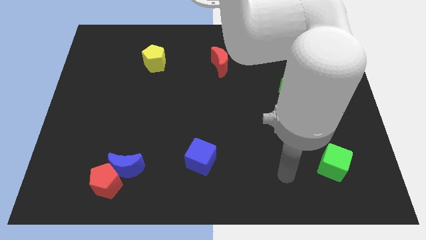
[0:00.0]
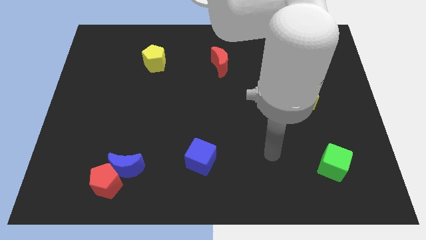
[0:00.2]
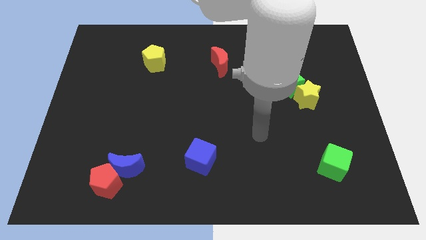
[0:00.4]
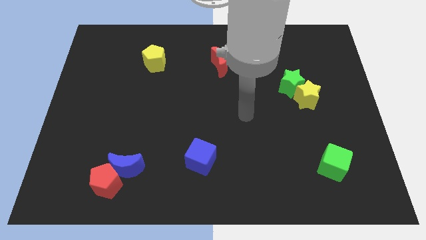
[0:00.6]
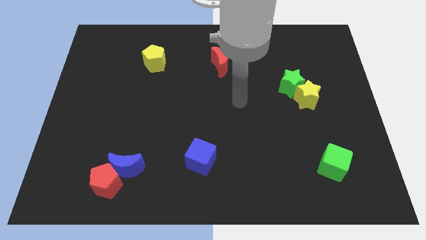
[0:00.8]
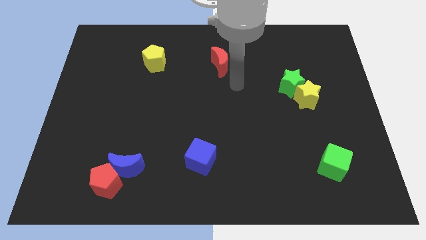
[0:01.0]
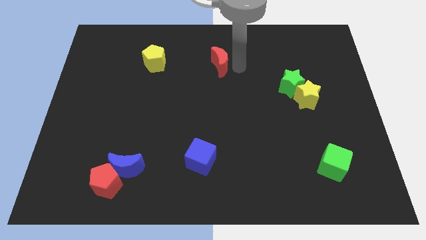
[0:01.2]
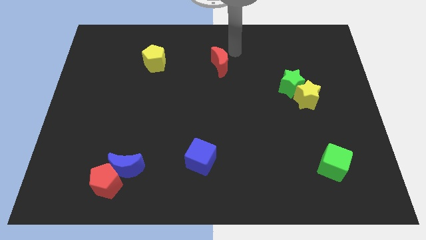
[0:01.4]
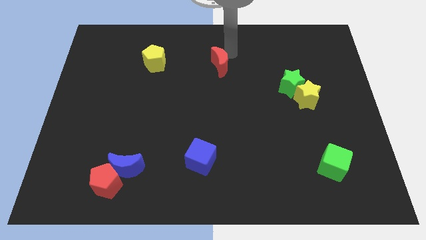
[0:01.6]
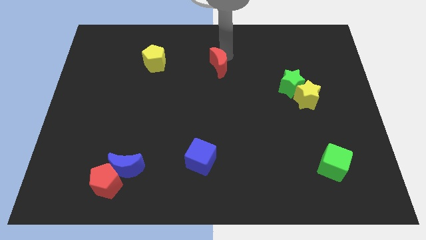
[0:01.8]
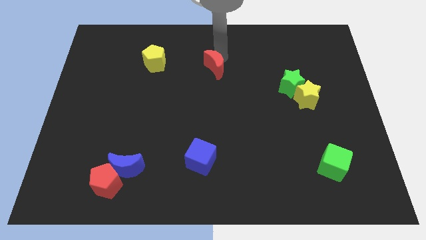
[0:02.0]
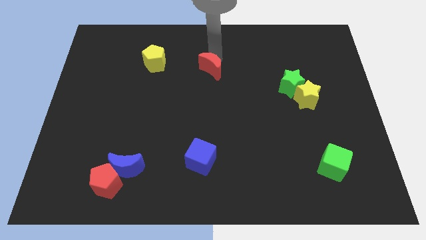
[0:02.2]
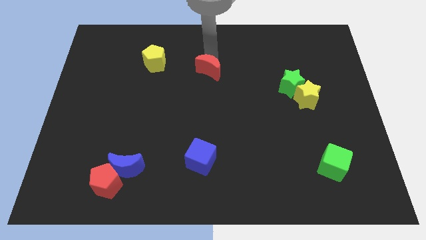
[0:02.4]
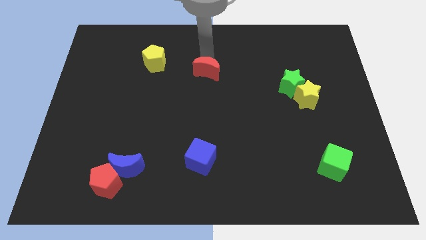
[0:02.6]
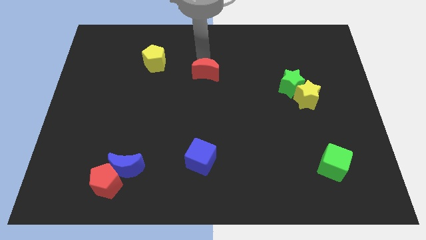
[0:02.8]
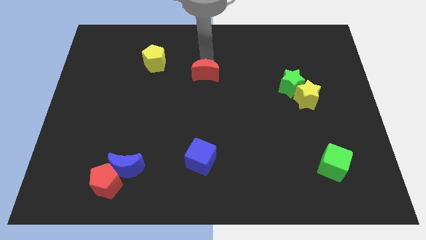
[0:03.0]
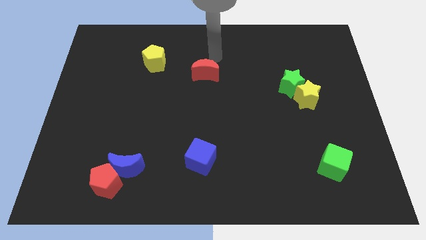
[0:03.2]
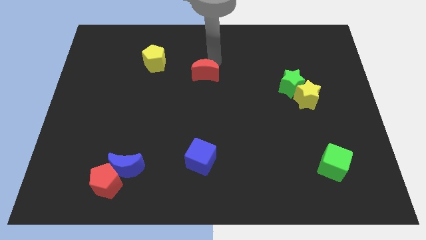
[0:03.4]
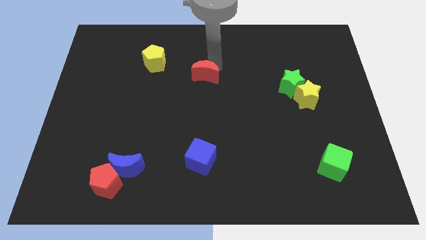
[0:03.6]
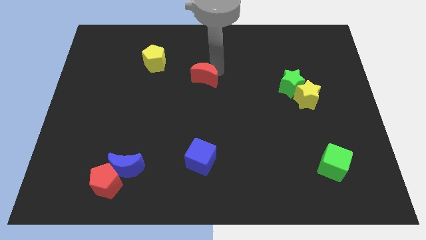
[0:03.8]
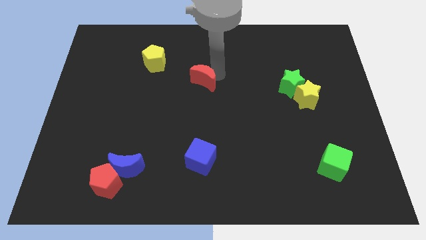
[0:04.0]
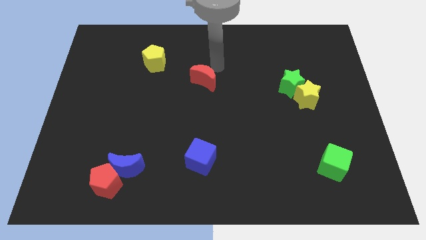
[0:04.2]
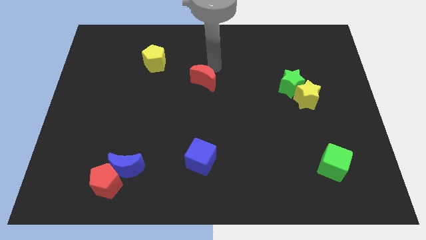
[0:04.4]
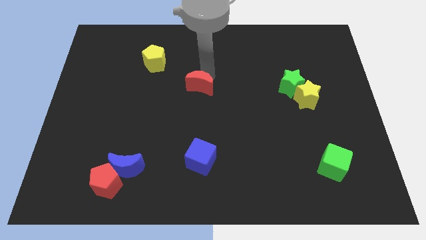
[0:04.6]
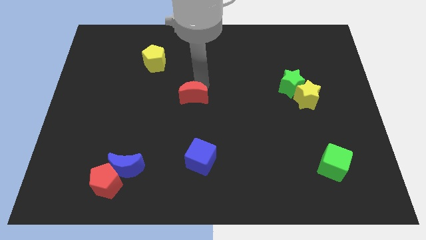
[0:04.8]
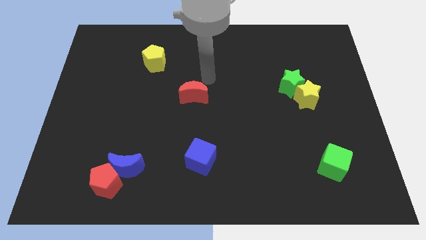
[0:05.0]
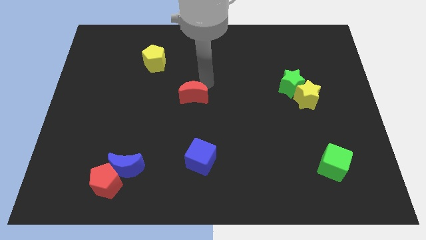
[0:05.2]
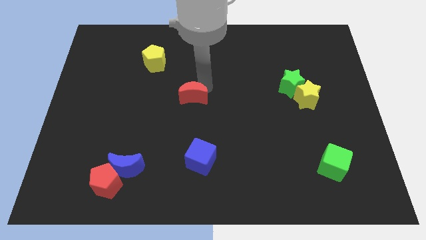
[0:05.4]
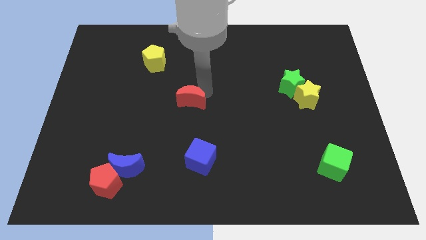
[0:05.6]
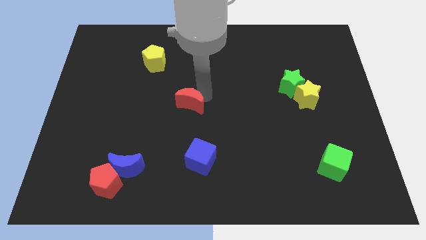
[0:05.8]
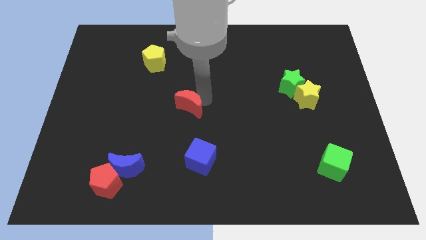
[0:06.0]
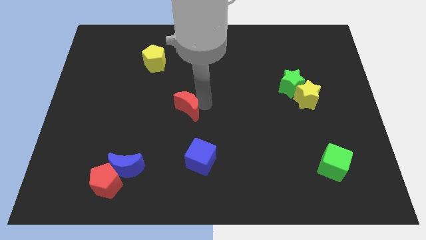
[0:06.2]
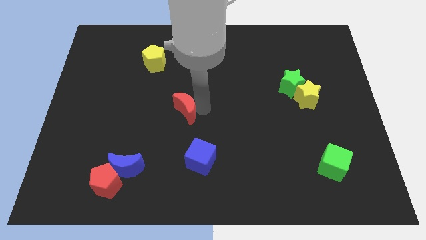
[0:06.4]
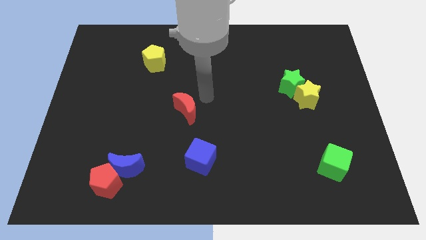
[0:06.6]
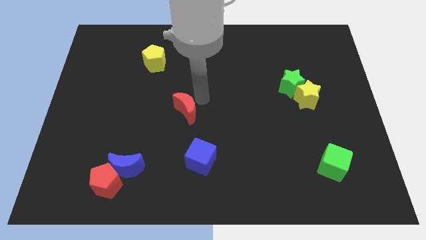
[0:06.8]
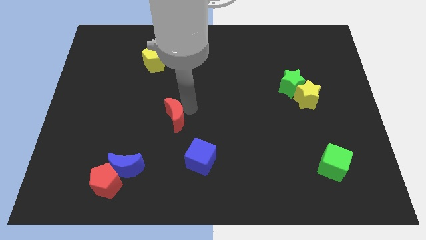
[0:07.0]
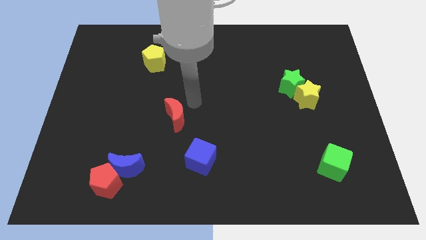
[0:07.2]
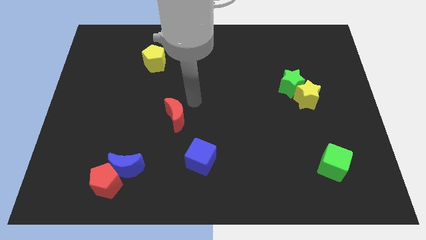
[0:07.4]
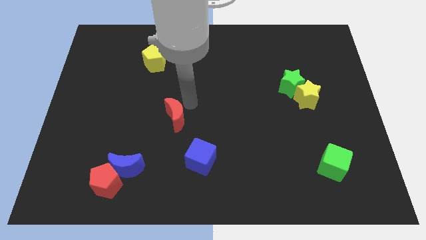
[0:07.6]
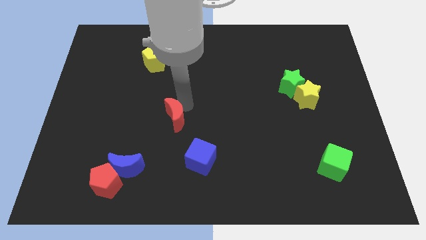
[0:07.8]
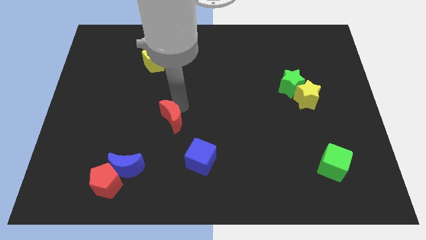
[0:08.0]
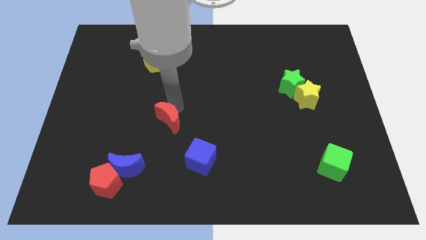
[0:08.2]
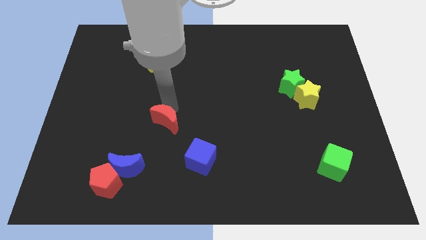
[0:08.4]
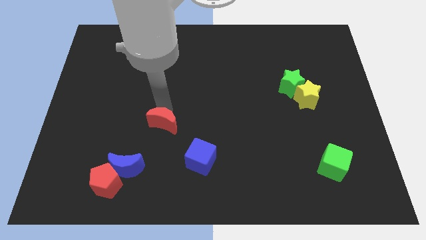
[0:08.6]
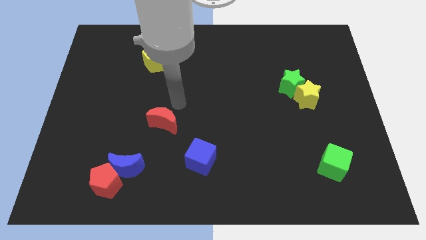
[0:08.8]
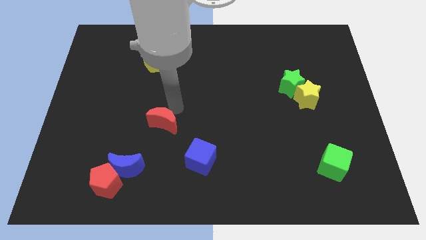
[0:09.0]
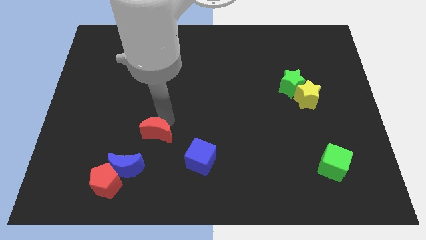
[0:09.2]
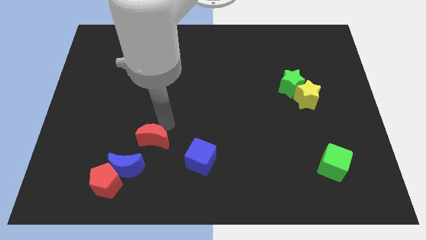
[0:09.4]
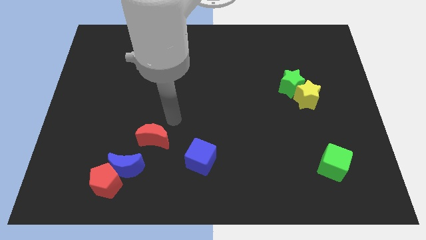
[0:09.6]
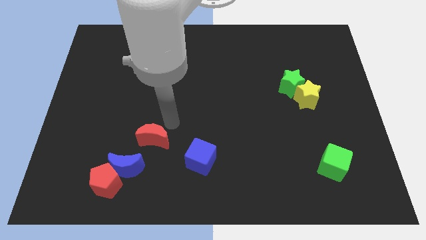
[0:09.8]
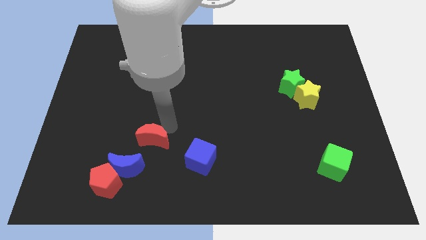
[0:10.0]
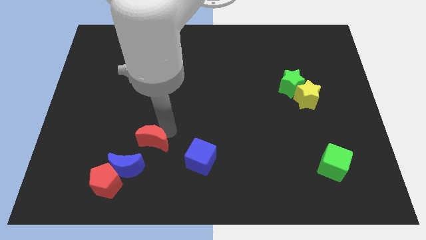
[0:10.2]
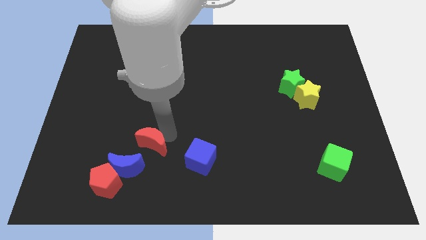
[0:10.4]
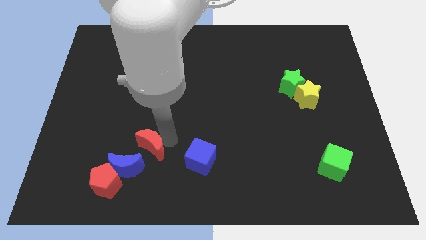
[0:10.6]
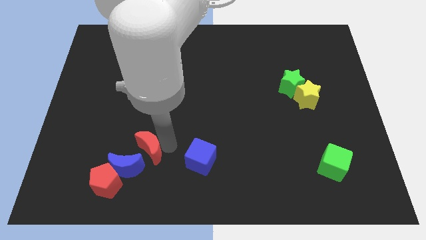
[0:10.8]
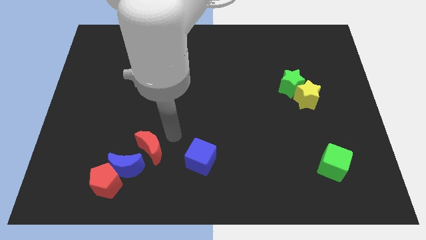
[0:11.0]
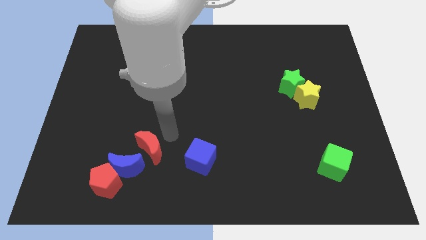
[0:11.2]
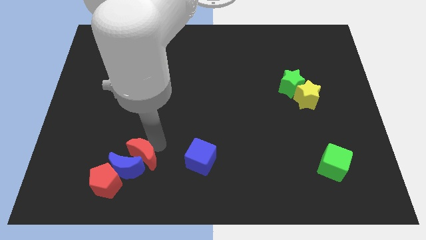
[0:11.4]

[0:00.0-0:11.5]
put the red moon towards the blue moon

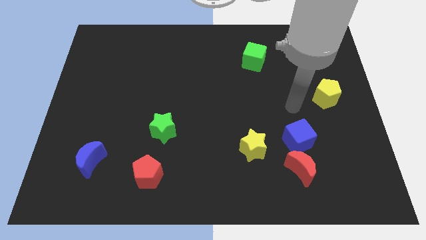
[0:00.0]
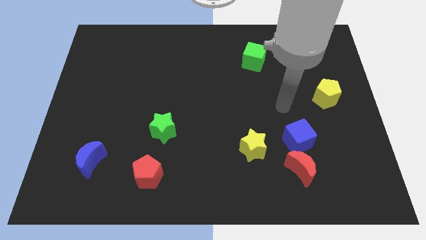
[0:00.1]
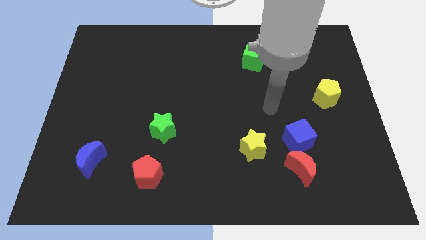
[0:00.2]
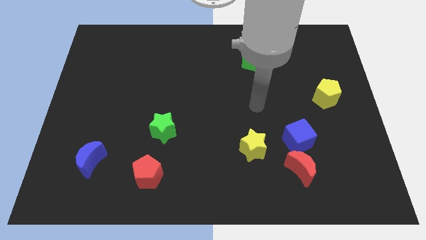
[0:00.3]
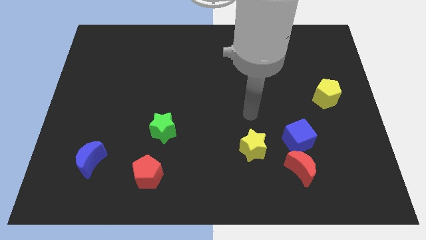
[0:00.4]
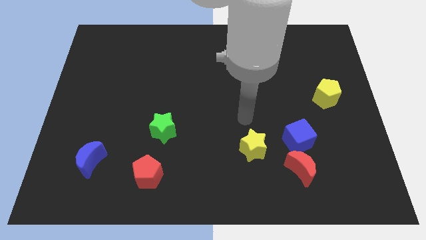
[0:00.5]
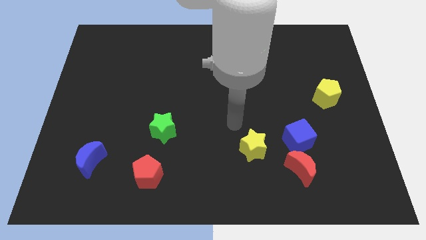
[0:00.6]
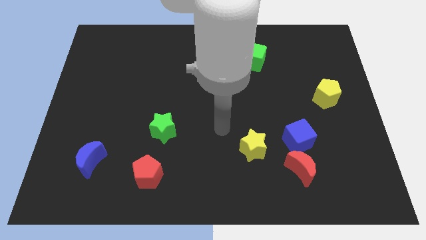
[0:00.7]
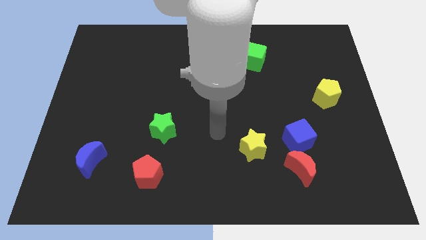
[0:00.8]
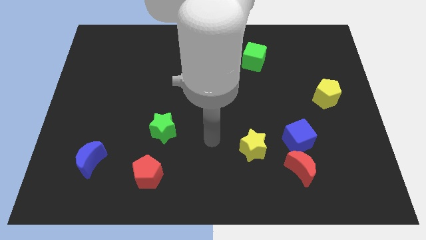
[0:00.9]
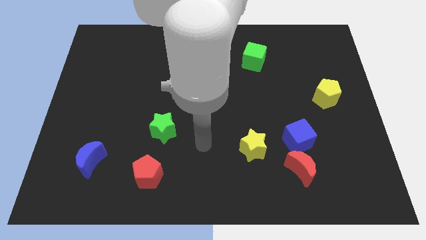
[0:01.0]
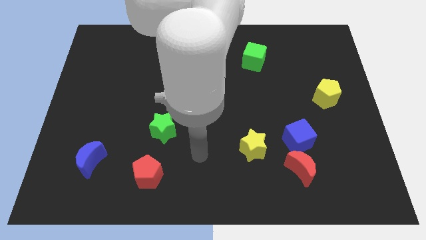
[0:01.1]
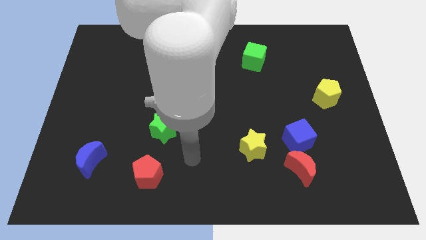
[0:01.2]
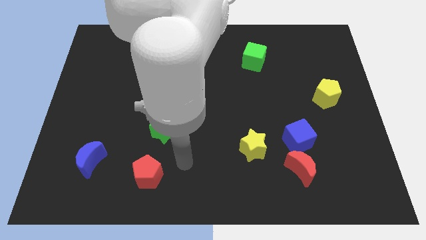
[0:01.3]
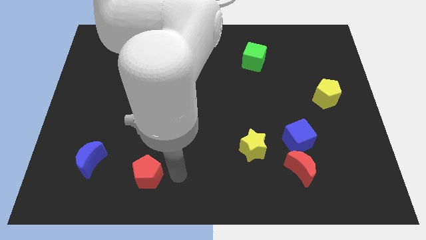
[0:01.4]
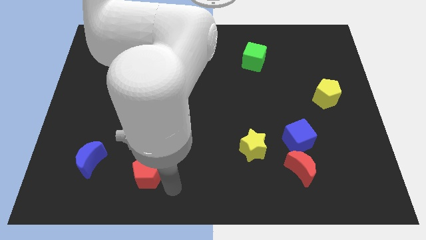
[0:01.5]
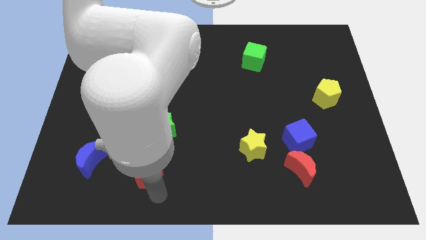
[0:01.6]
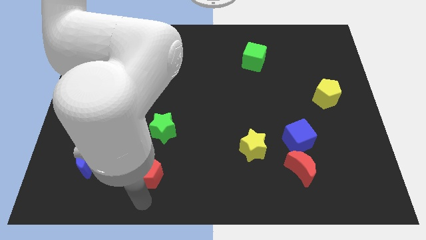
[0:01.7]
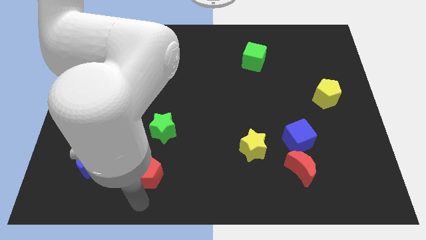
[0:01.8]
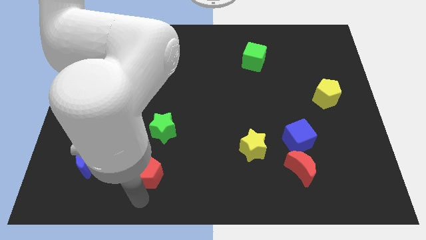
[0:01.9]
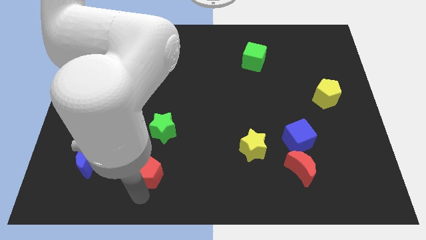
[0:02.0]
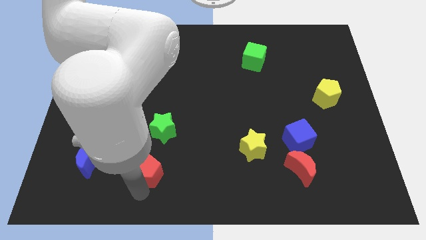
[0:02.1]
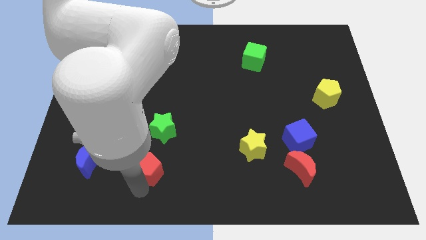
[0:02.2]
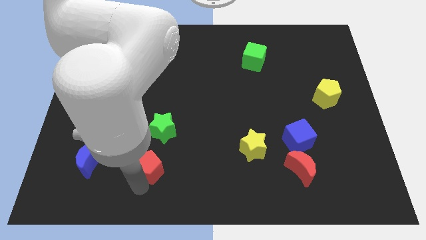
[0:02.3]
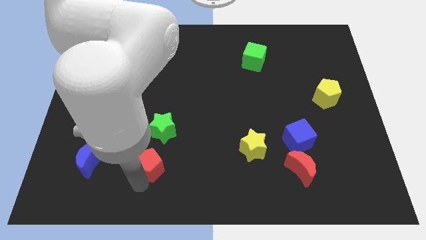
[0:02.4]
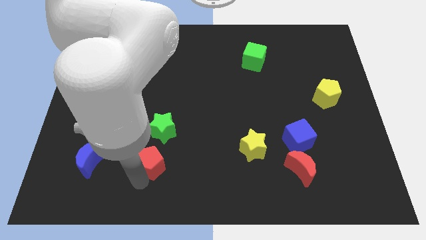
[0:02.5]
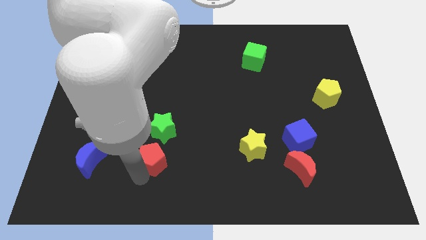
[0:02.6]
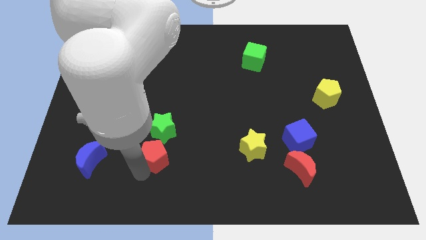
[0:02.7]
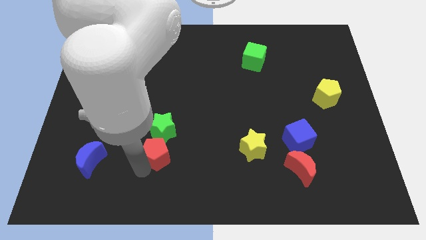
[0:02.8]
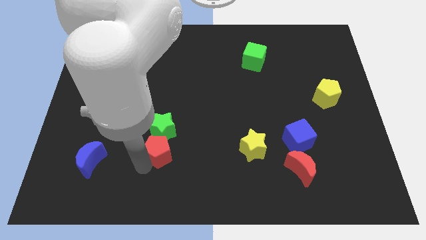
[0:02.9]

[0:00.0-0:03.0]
slide the red pentagon towards the green star
